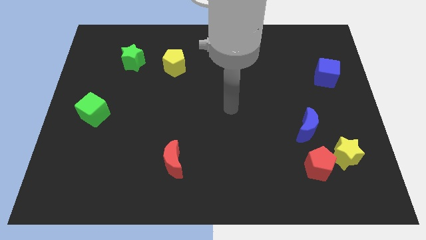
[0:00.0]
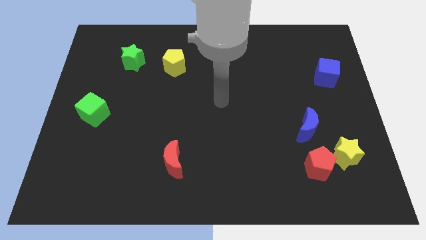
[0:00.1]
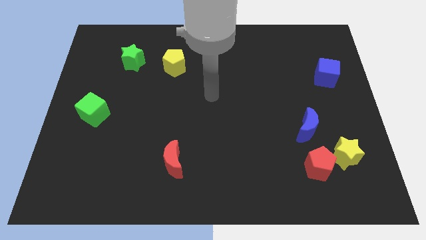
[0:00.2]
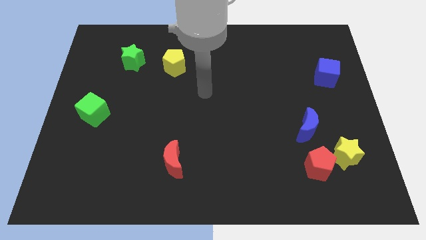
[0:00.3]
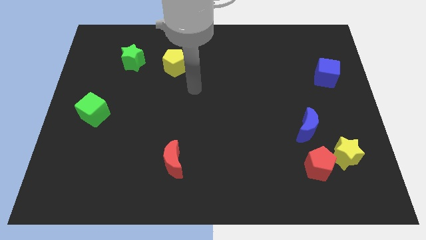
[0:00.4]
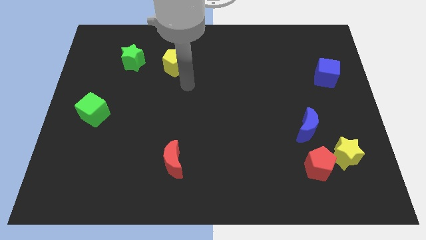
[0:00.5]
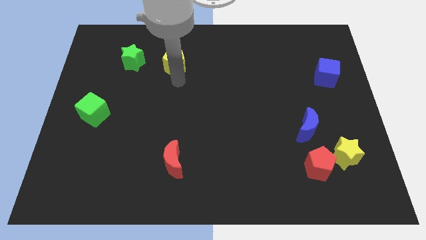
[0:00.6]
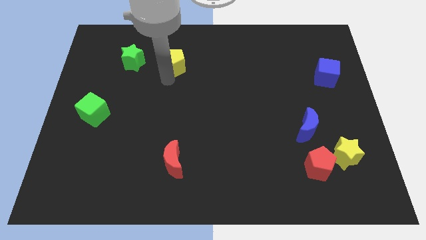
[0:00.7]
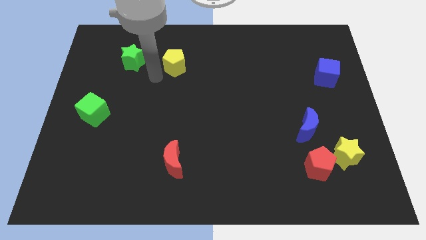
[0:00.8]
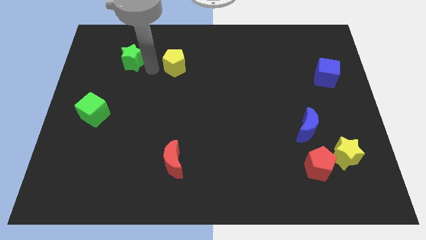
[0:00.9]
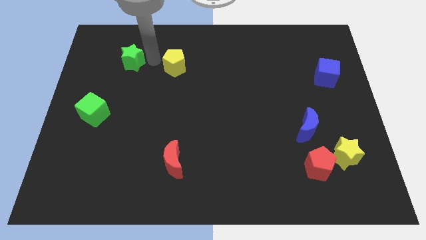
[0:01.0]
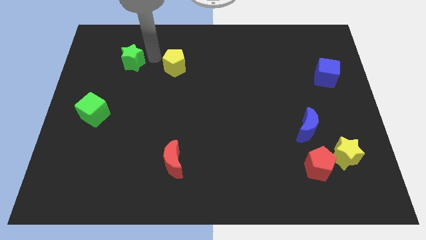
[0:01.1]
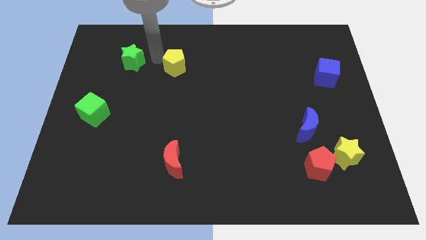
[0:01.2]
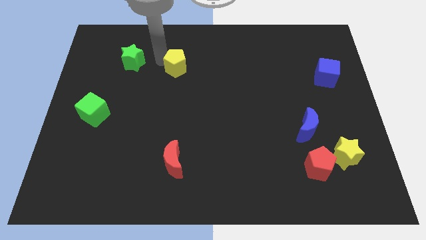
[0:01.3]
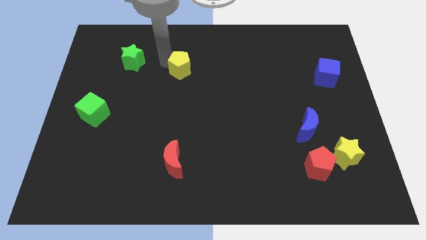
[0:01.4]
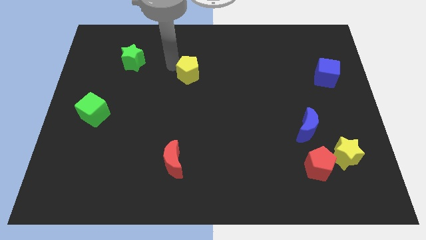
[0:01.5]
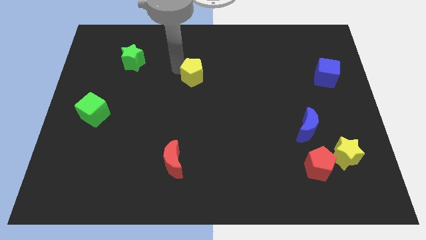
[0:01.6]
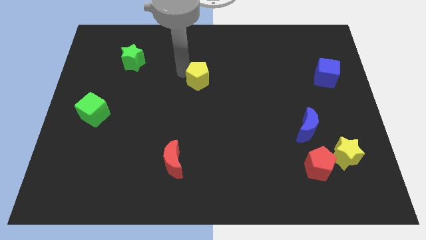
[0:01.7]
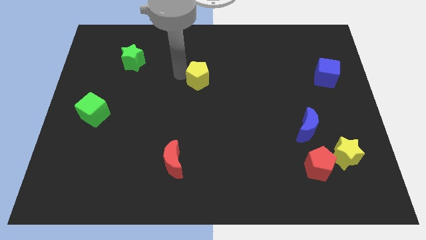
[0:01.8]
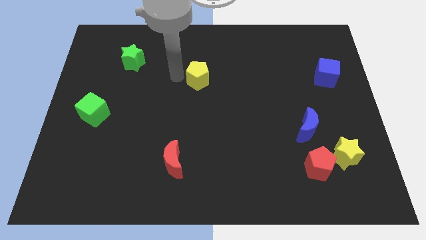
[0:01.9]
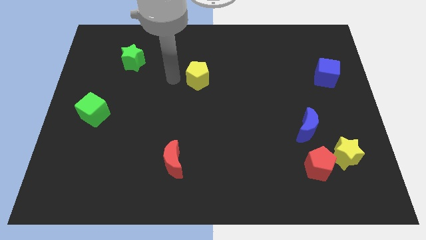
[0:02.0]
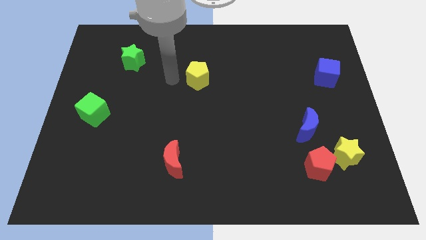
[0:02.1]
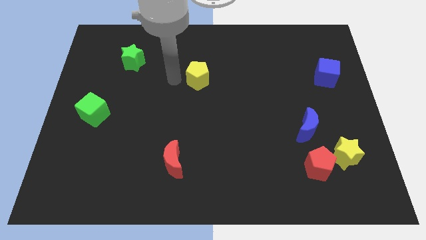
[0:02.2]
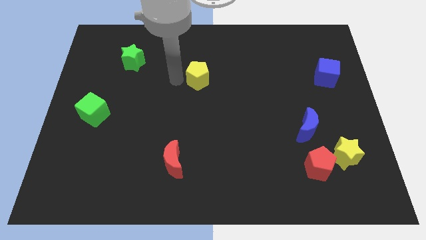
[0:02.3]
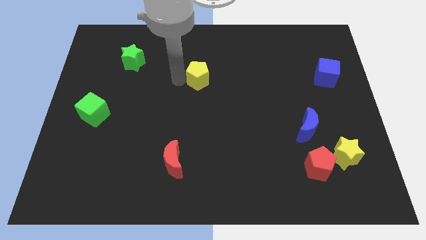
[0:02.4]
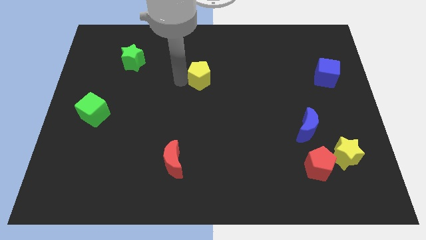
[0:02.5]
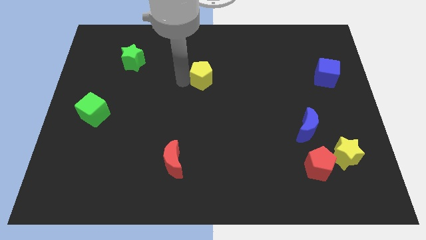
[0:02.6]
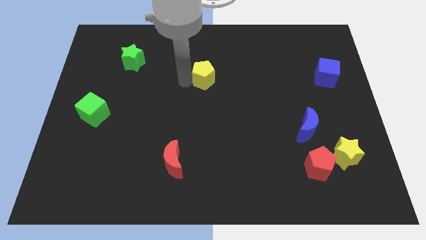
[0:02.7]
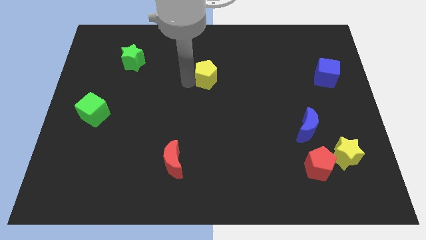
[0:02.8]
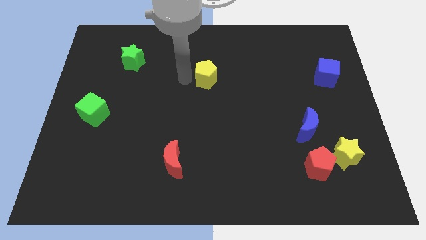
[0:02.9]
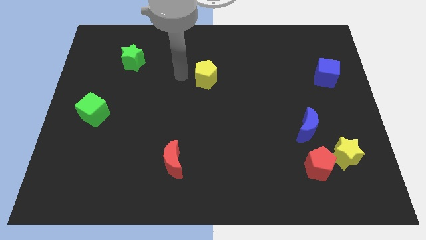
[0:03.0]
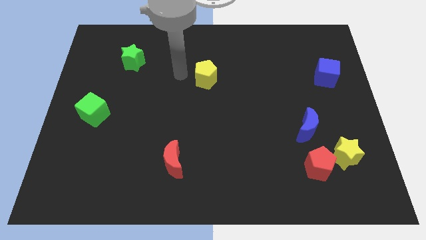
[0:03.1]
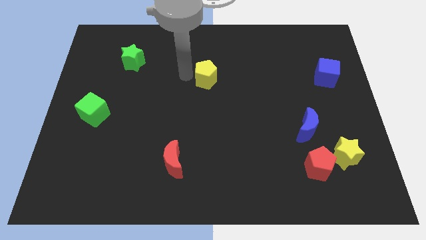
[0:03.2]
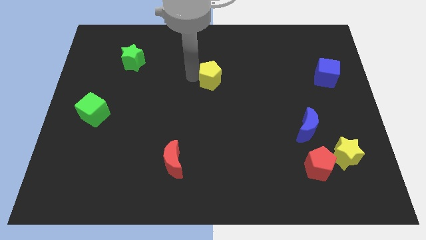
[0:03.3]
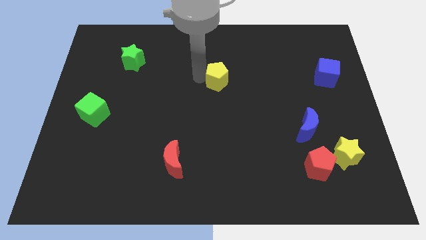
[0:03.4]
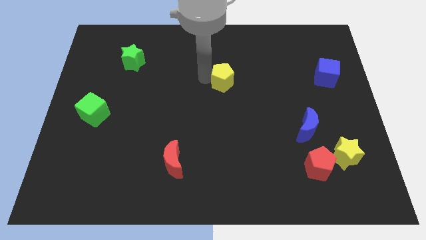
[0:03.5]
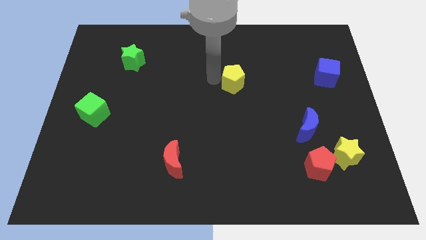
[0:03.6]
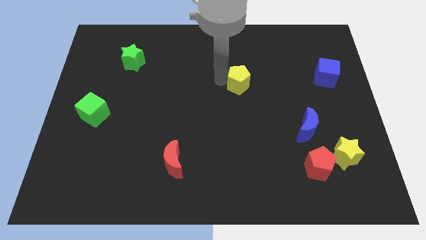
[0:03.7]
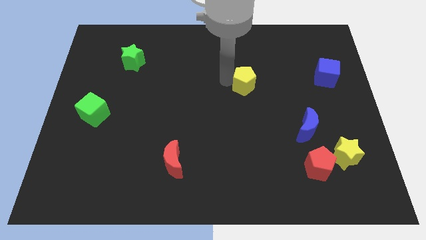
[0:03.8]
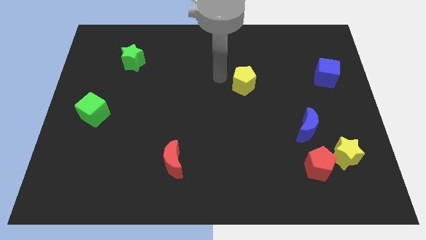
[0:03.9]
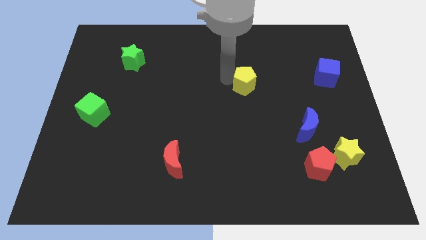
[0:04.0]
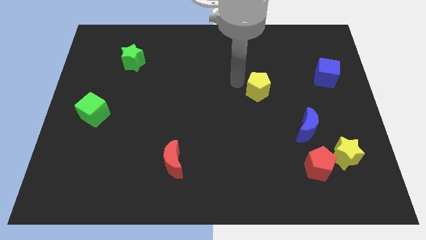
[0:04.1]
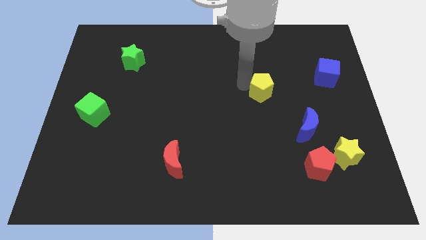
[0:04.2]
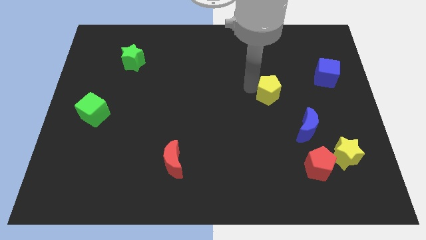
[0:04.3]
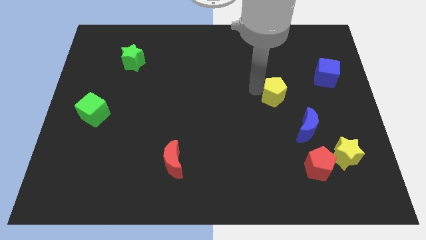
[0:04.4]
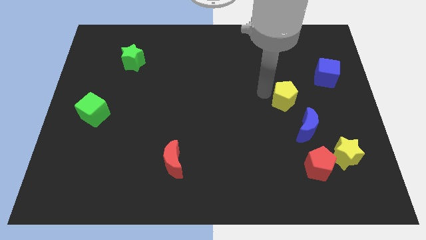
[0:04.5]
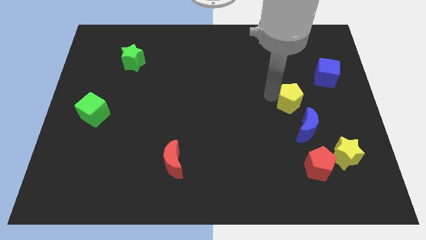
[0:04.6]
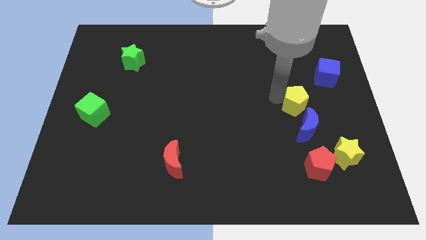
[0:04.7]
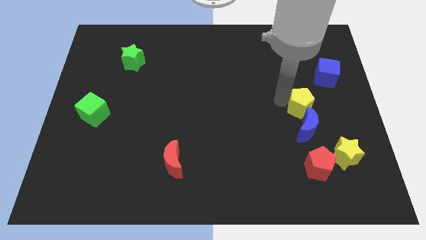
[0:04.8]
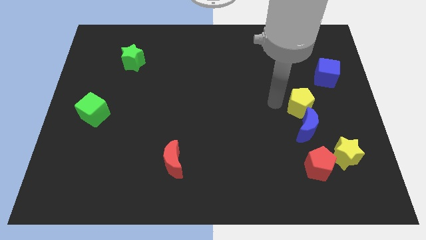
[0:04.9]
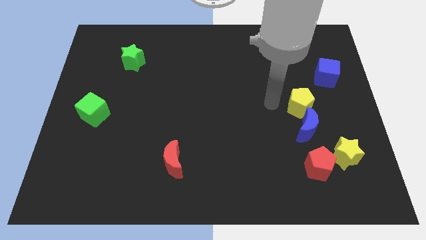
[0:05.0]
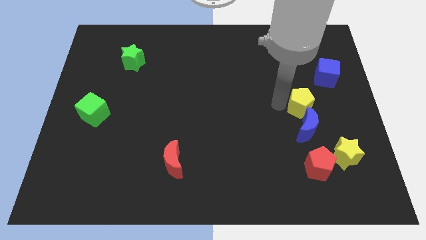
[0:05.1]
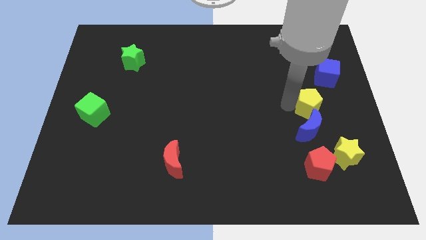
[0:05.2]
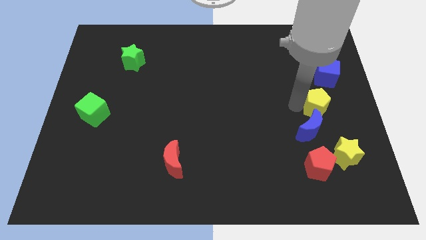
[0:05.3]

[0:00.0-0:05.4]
put the yellow pentagon to the bottom of the blue cube
